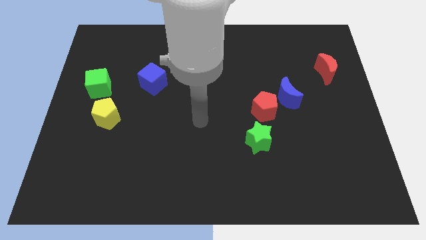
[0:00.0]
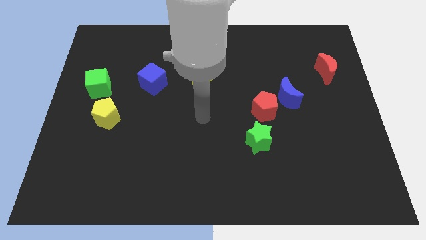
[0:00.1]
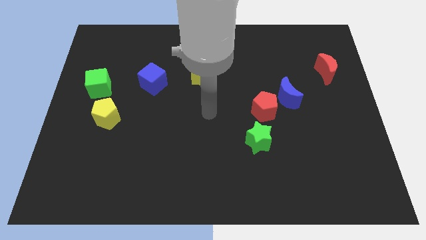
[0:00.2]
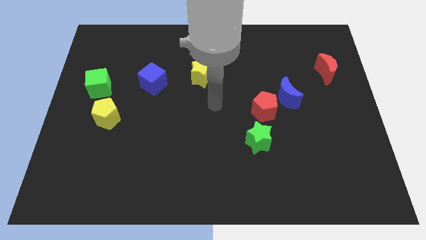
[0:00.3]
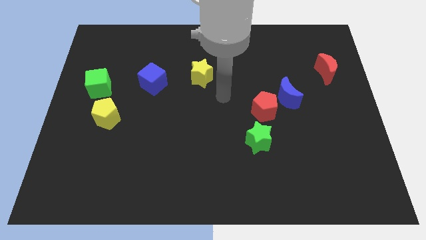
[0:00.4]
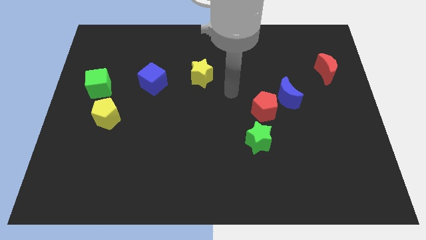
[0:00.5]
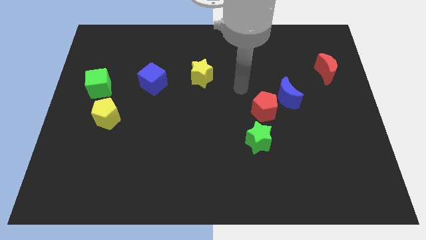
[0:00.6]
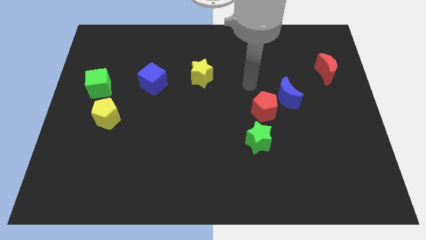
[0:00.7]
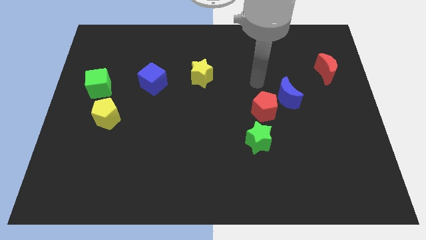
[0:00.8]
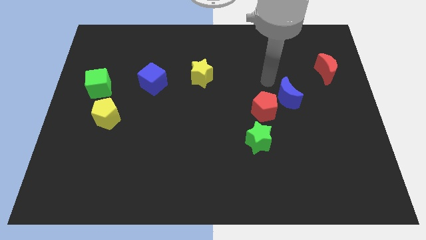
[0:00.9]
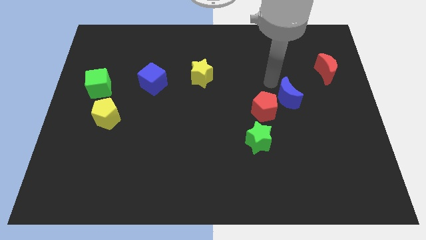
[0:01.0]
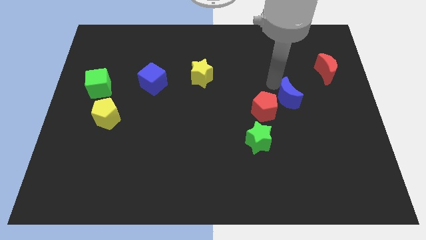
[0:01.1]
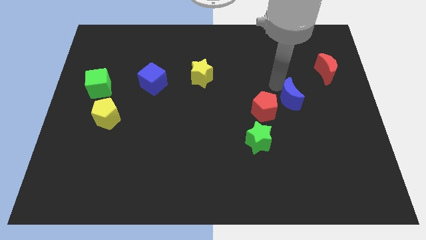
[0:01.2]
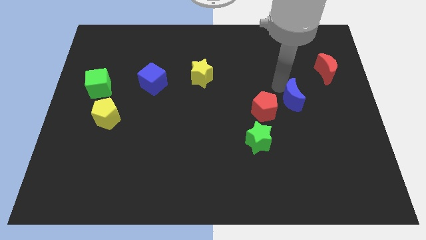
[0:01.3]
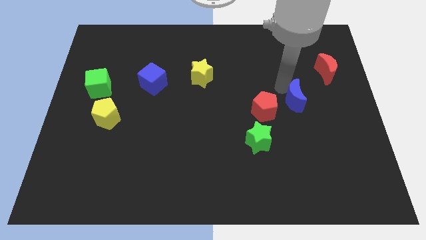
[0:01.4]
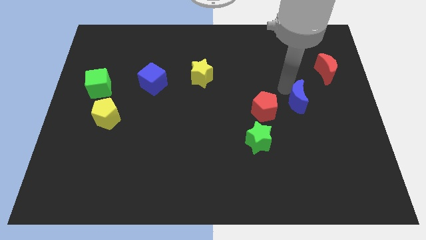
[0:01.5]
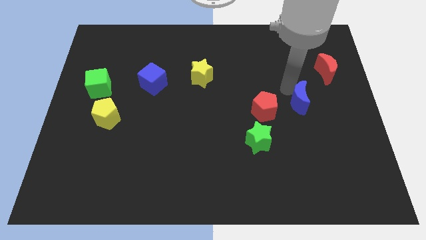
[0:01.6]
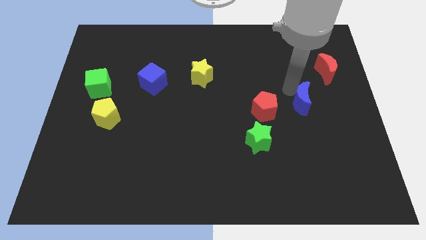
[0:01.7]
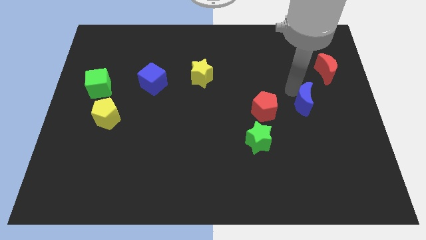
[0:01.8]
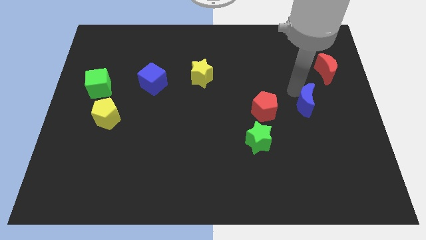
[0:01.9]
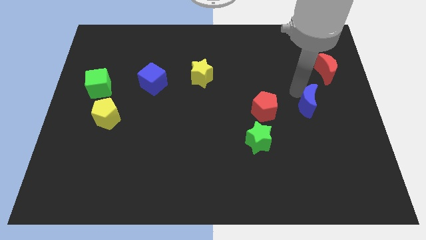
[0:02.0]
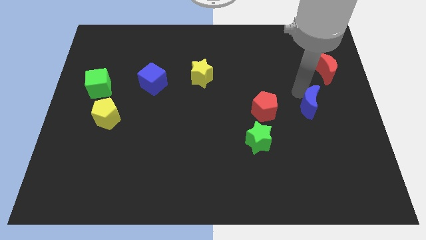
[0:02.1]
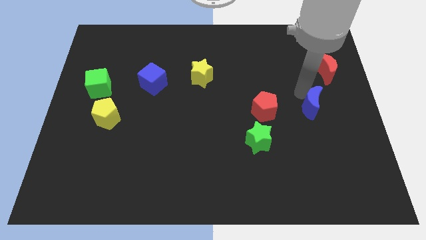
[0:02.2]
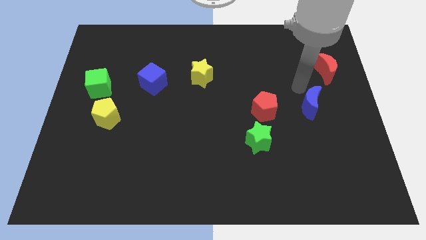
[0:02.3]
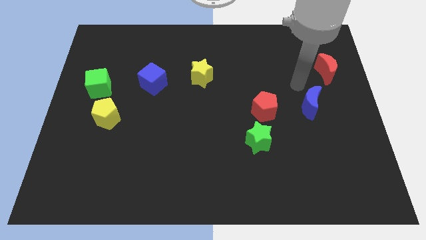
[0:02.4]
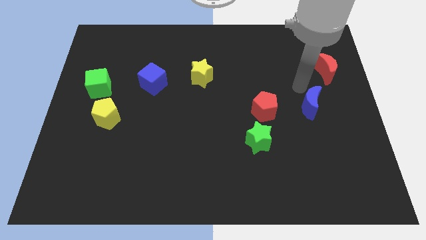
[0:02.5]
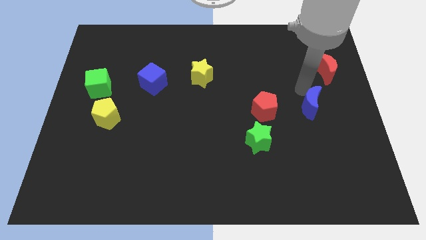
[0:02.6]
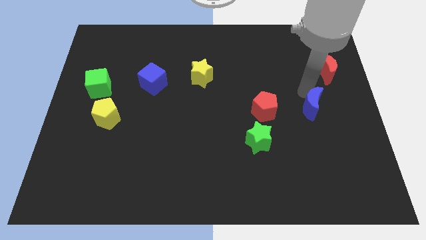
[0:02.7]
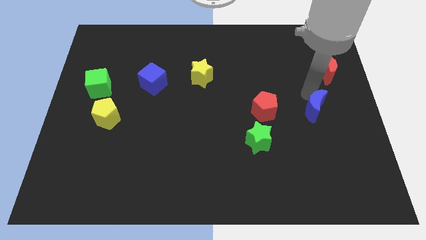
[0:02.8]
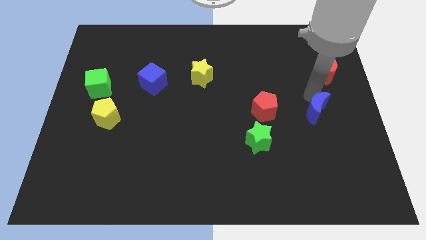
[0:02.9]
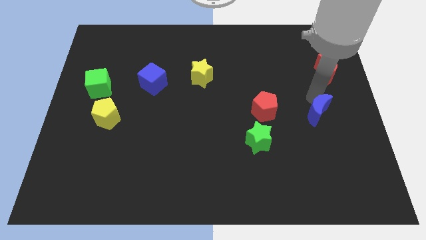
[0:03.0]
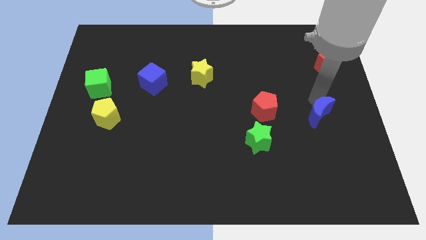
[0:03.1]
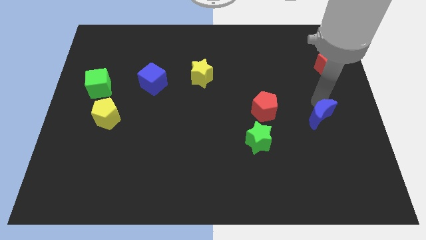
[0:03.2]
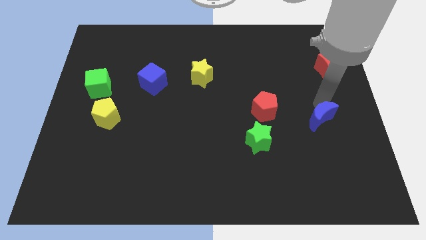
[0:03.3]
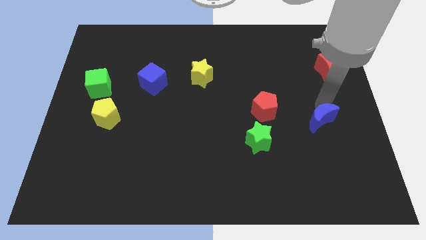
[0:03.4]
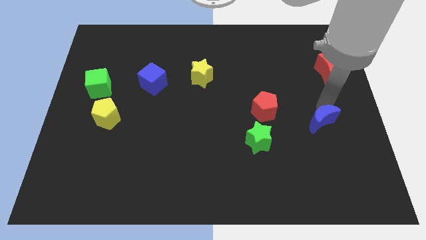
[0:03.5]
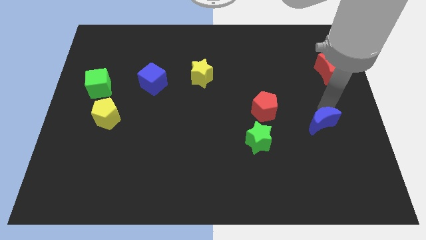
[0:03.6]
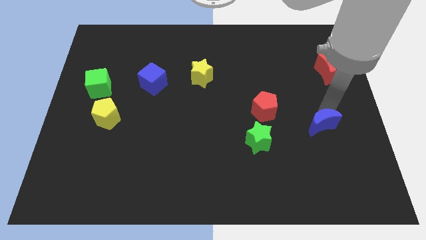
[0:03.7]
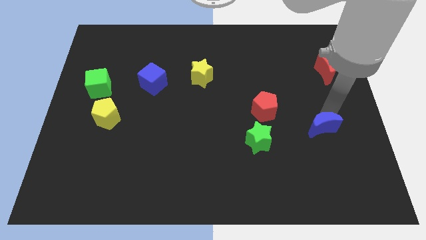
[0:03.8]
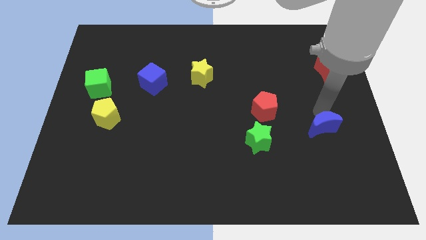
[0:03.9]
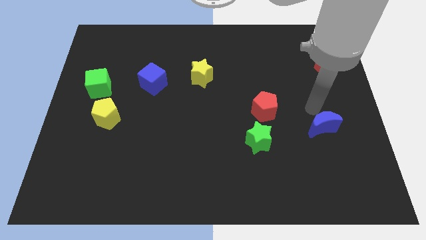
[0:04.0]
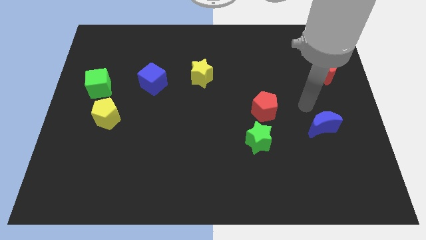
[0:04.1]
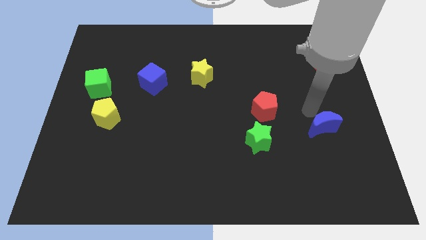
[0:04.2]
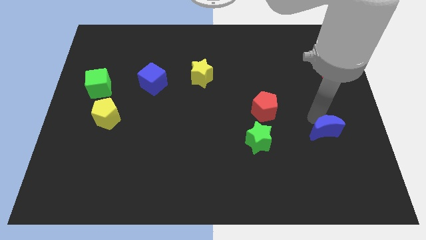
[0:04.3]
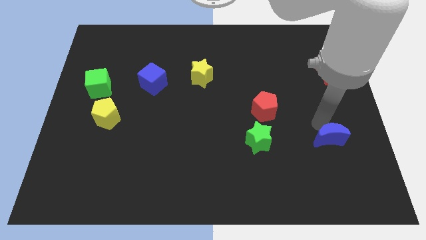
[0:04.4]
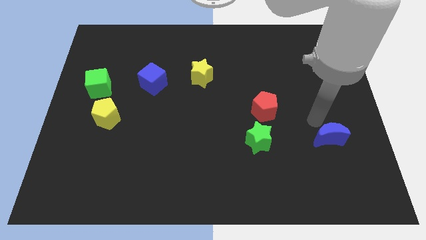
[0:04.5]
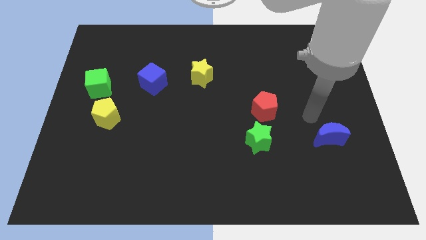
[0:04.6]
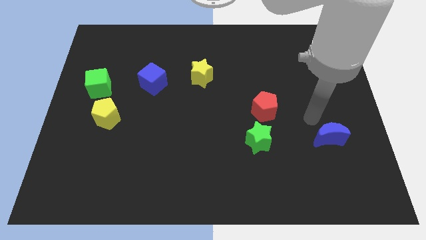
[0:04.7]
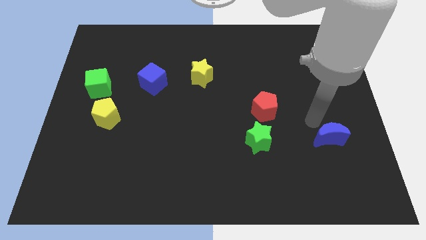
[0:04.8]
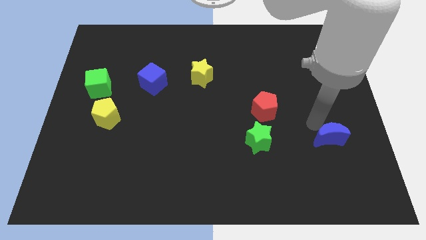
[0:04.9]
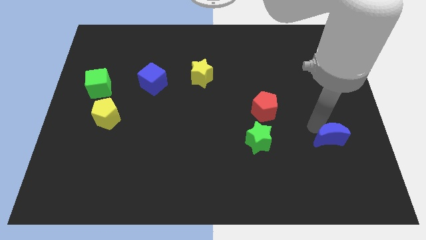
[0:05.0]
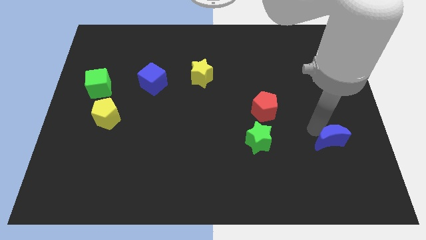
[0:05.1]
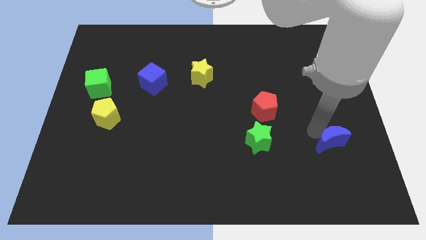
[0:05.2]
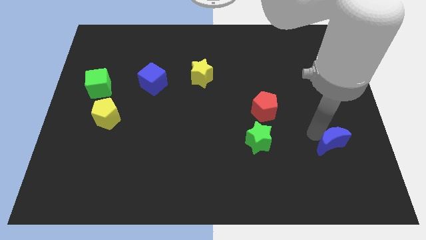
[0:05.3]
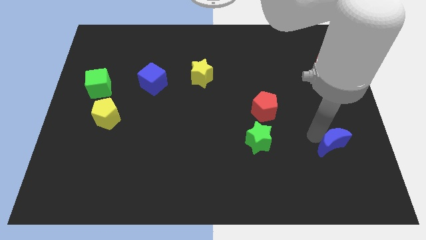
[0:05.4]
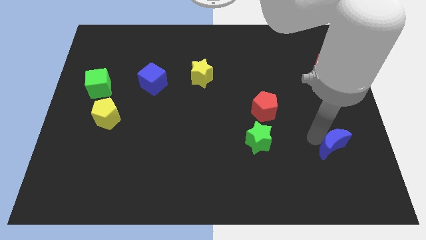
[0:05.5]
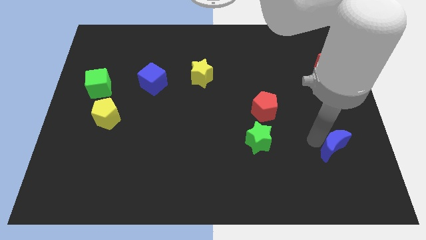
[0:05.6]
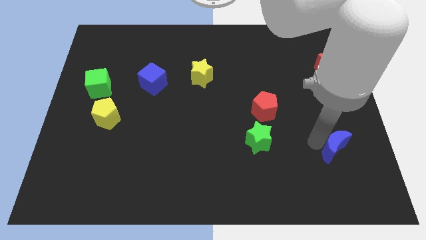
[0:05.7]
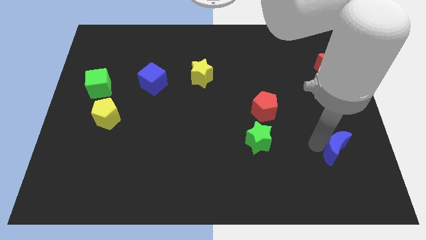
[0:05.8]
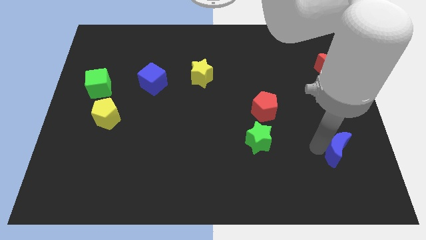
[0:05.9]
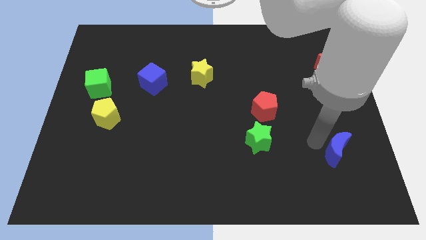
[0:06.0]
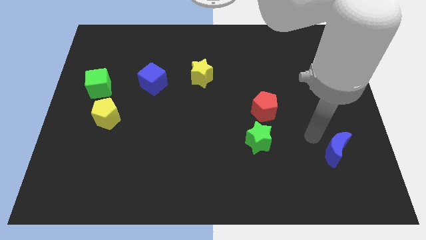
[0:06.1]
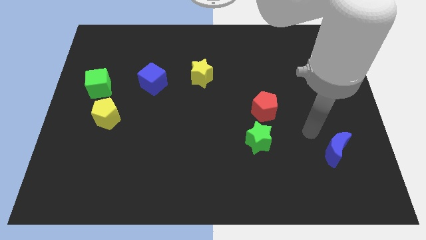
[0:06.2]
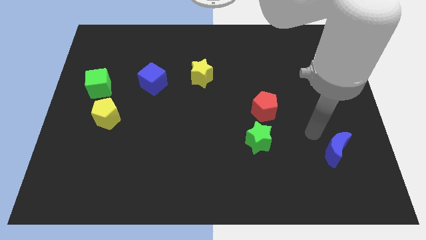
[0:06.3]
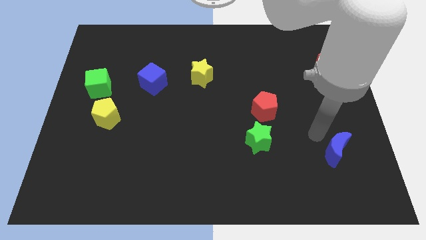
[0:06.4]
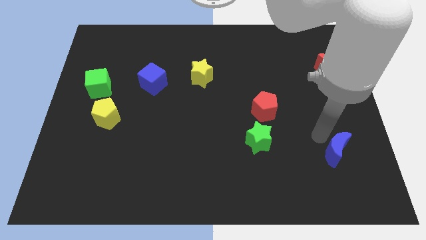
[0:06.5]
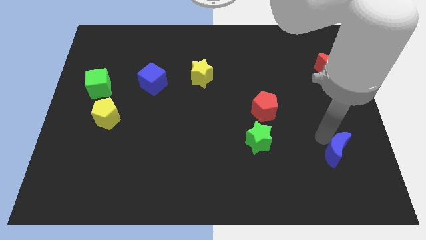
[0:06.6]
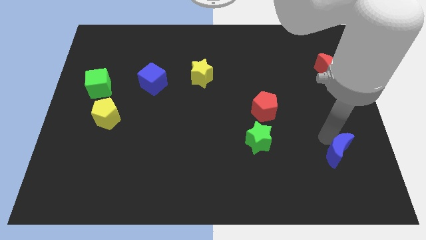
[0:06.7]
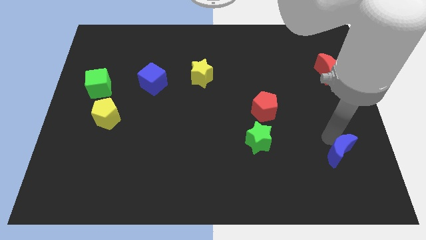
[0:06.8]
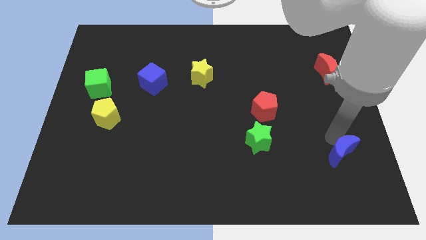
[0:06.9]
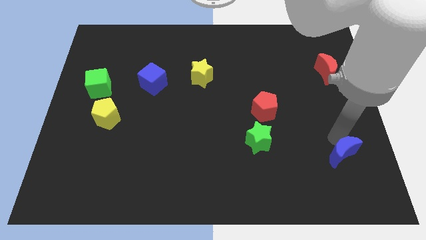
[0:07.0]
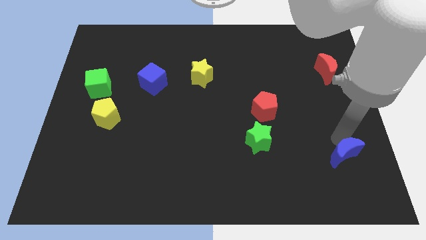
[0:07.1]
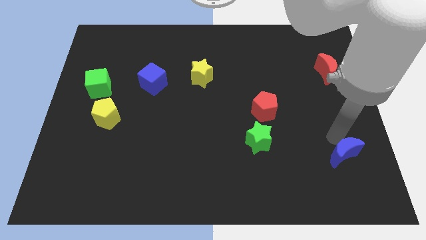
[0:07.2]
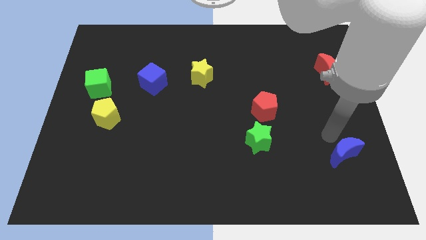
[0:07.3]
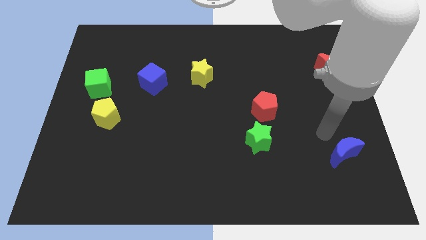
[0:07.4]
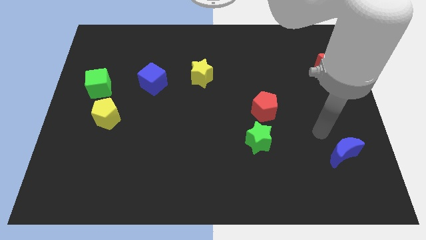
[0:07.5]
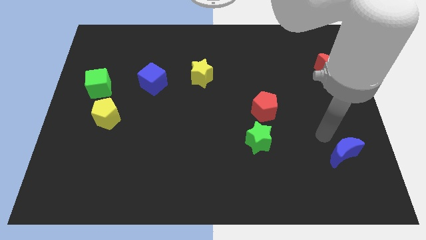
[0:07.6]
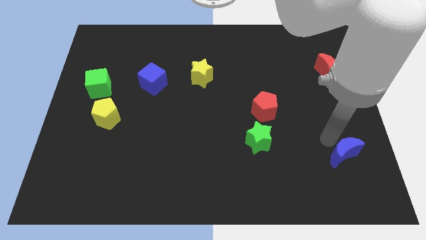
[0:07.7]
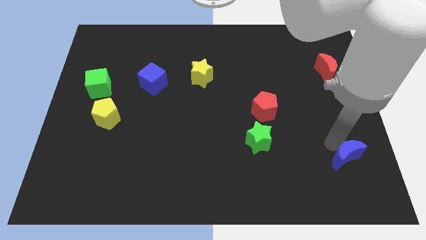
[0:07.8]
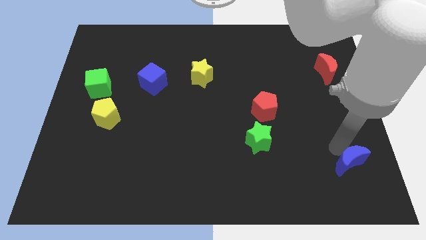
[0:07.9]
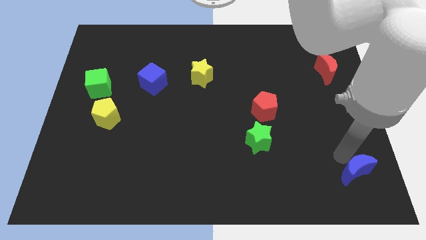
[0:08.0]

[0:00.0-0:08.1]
move the blue moon to the bottom right
